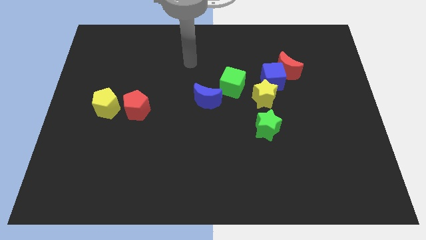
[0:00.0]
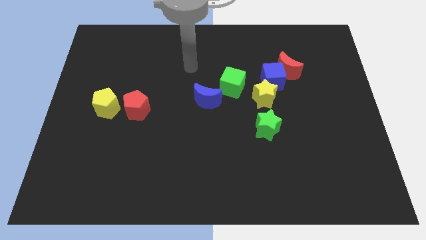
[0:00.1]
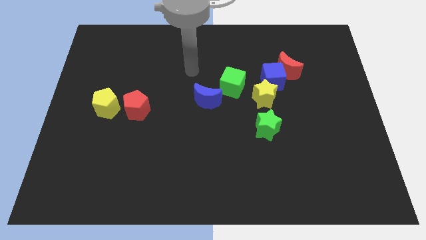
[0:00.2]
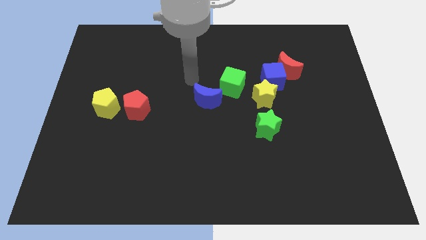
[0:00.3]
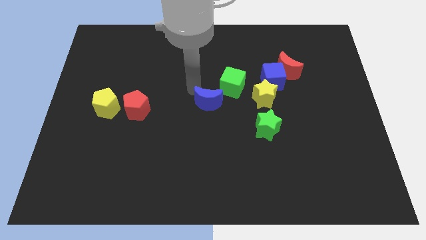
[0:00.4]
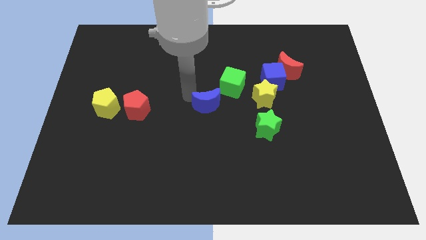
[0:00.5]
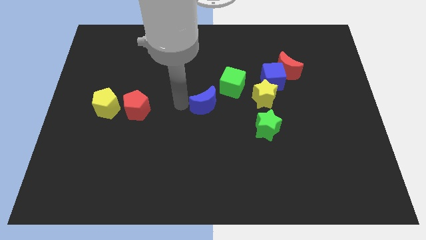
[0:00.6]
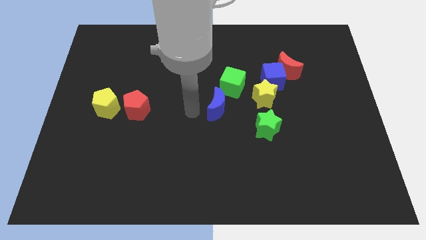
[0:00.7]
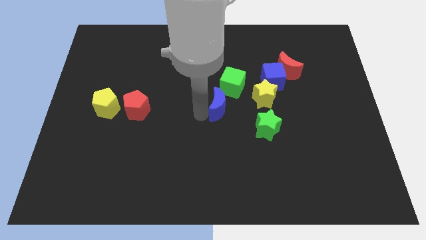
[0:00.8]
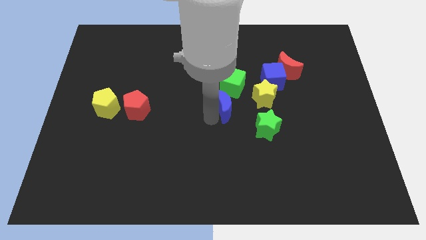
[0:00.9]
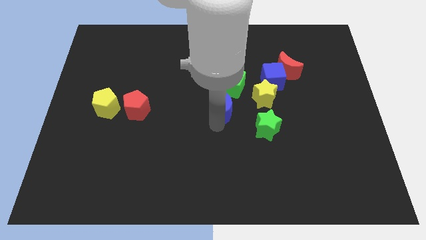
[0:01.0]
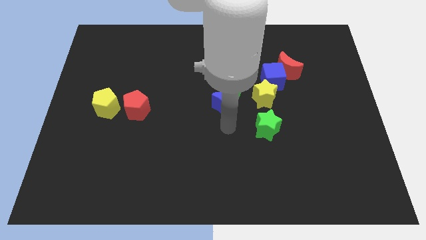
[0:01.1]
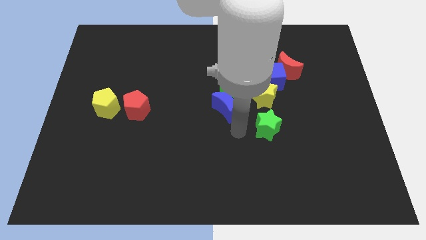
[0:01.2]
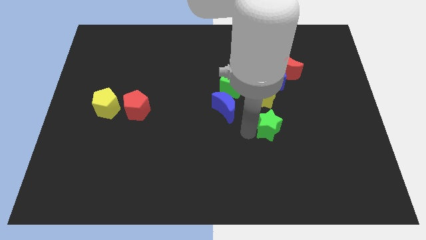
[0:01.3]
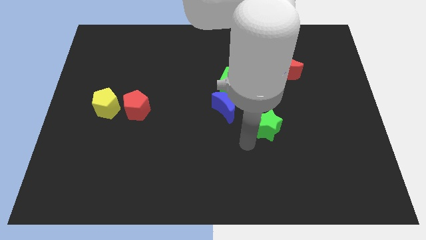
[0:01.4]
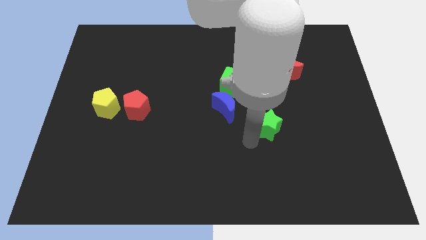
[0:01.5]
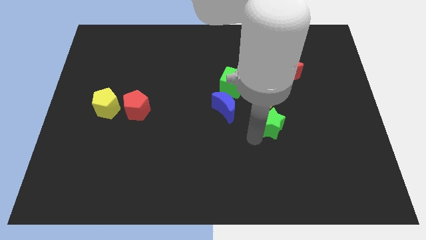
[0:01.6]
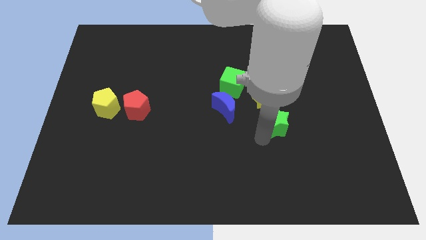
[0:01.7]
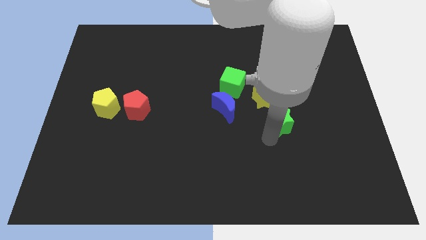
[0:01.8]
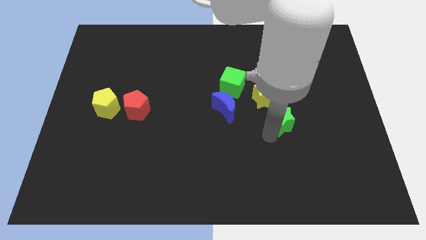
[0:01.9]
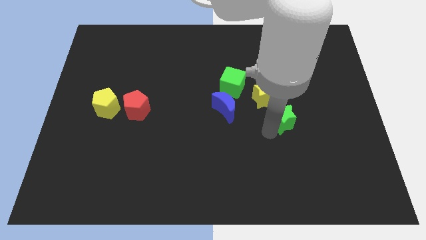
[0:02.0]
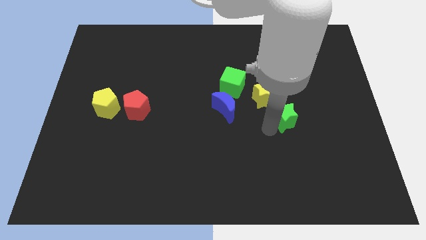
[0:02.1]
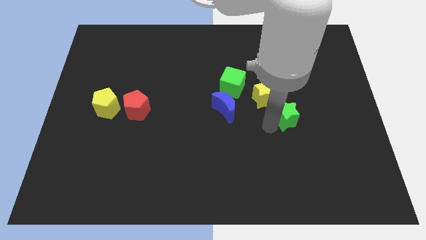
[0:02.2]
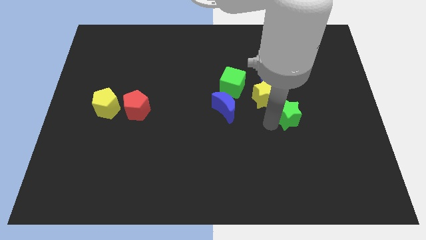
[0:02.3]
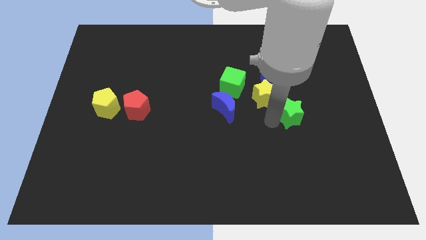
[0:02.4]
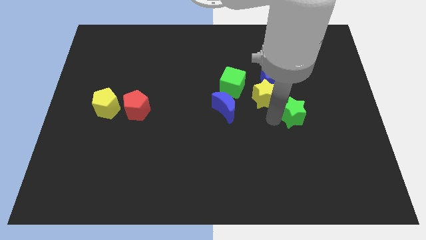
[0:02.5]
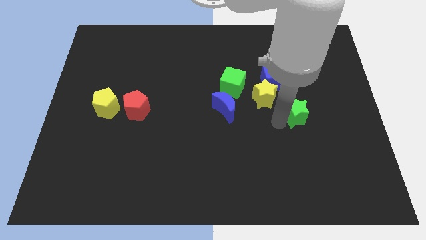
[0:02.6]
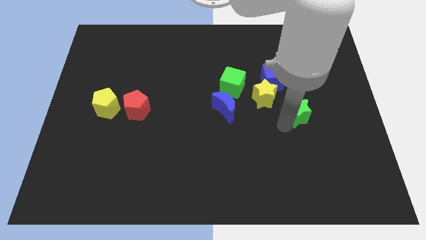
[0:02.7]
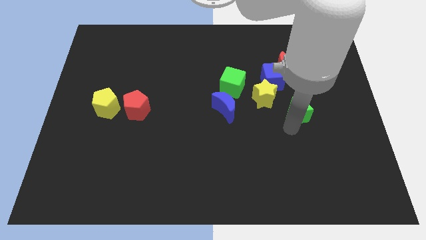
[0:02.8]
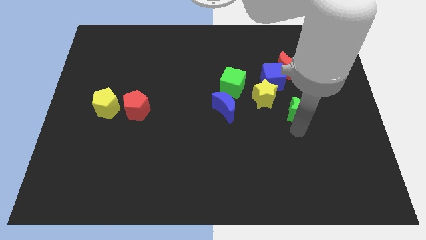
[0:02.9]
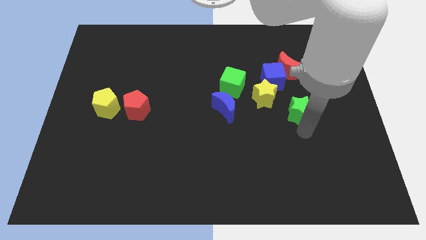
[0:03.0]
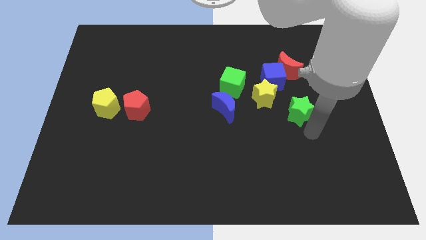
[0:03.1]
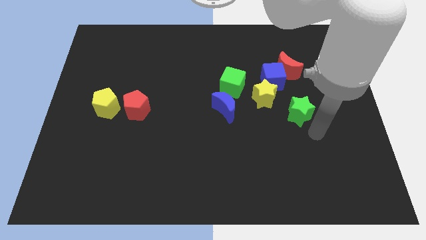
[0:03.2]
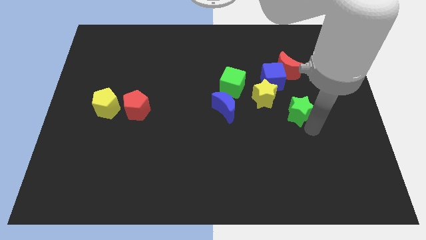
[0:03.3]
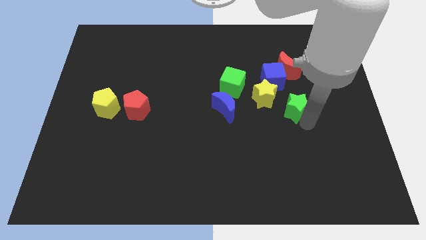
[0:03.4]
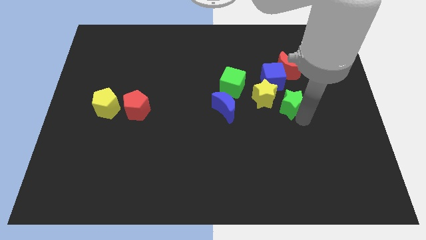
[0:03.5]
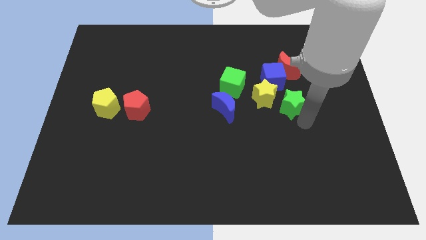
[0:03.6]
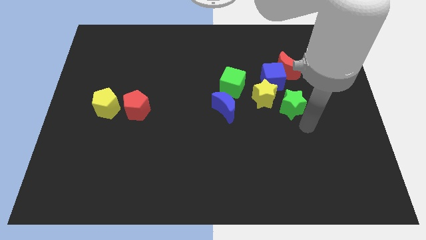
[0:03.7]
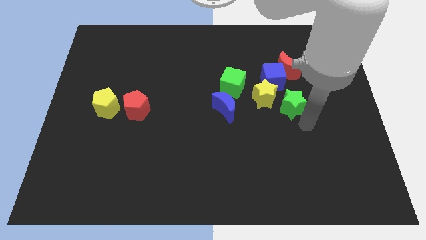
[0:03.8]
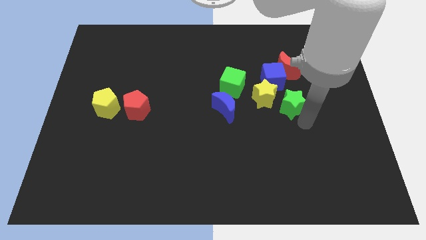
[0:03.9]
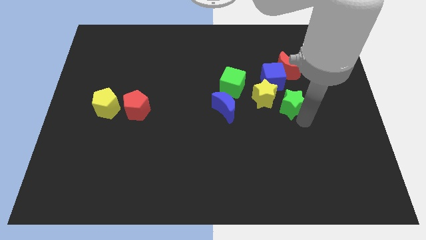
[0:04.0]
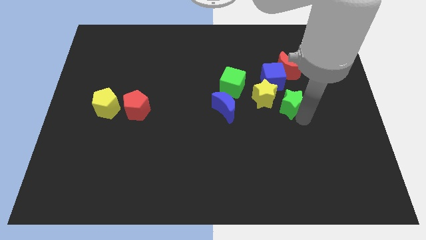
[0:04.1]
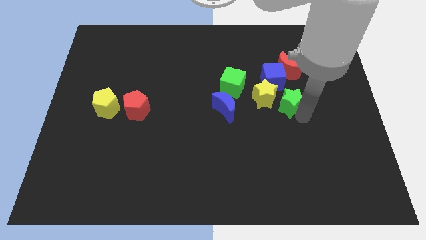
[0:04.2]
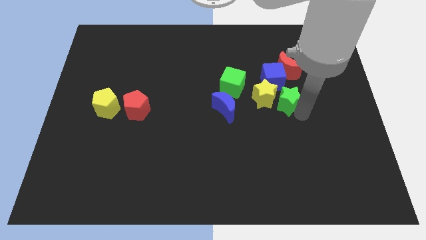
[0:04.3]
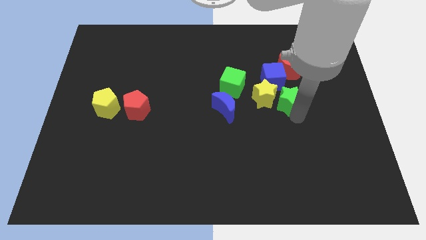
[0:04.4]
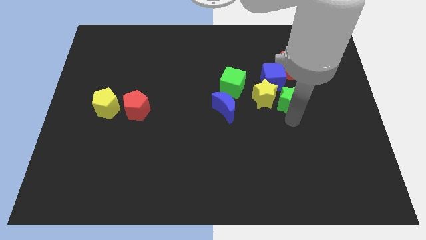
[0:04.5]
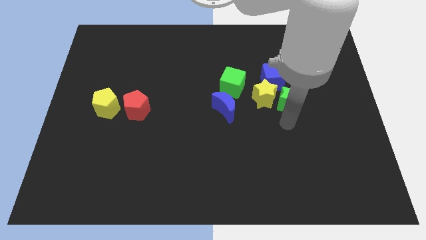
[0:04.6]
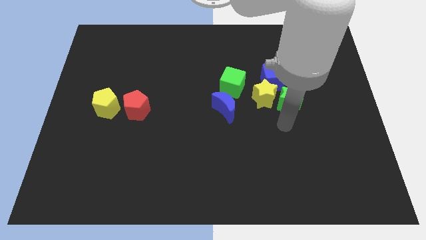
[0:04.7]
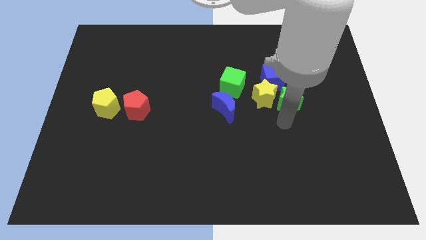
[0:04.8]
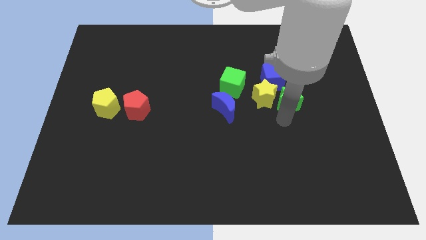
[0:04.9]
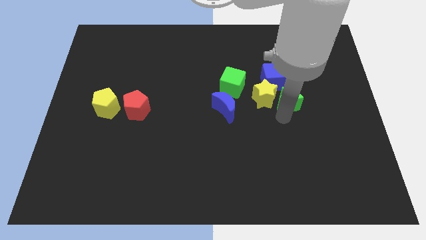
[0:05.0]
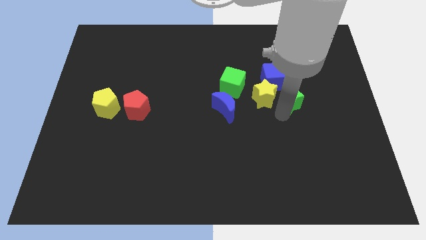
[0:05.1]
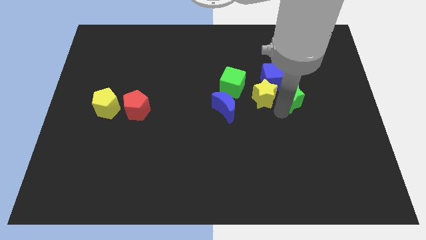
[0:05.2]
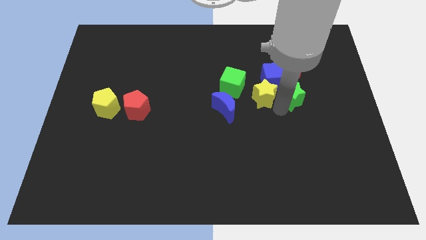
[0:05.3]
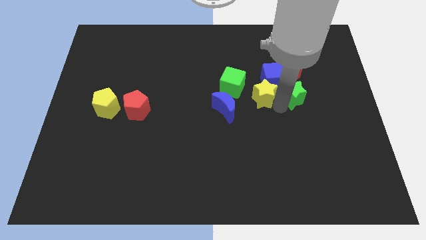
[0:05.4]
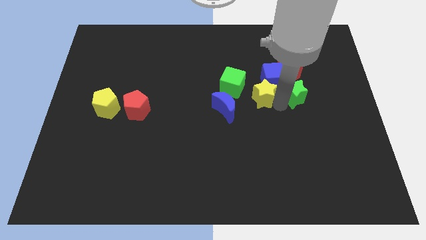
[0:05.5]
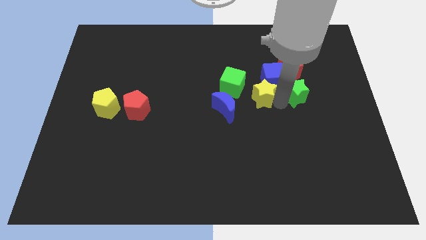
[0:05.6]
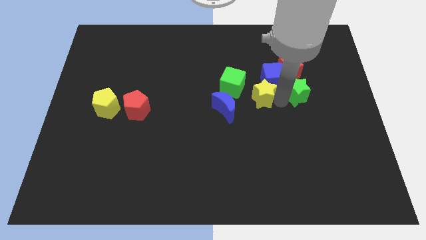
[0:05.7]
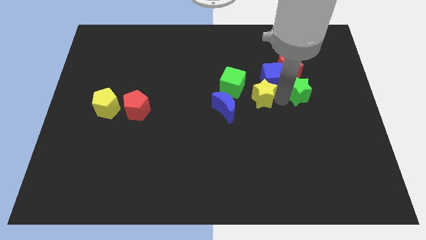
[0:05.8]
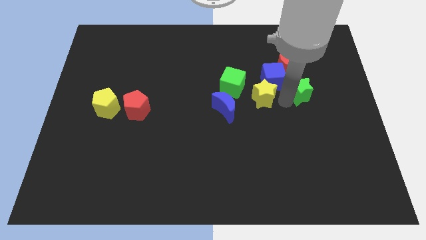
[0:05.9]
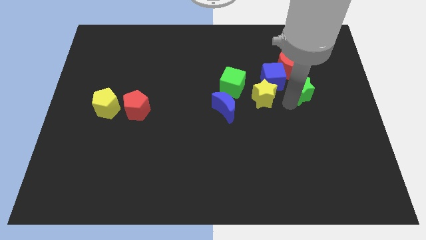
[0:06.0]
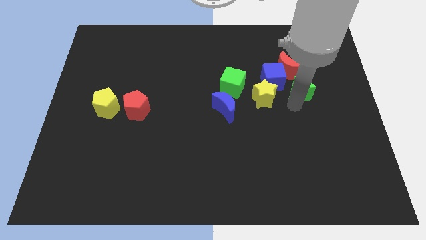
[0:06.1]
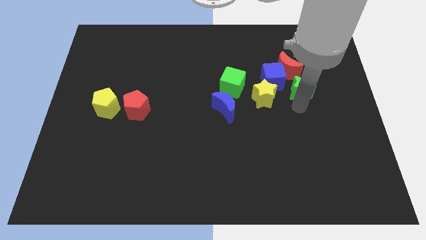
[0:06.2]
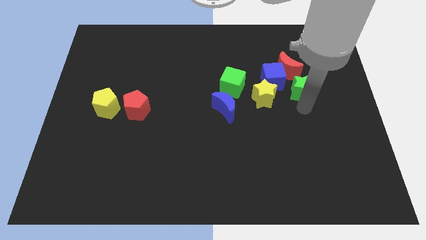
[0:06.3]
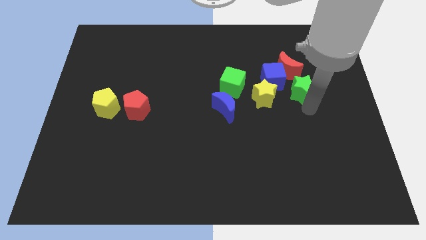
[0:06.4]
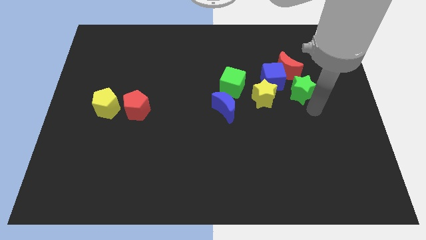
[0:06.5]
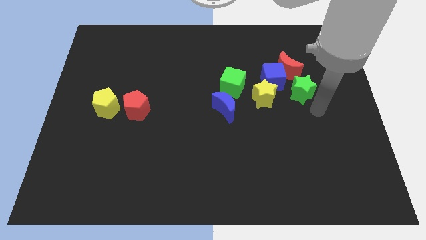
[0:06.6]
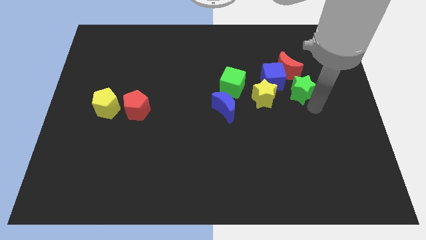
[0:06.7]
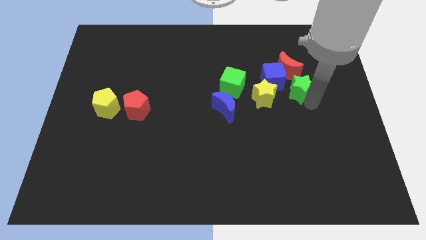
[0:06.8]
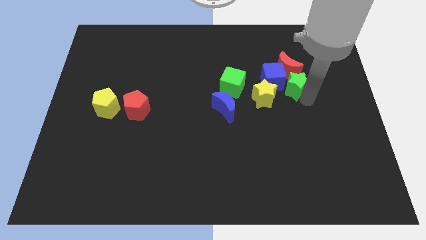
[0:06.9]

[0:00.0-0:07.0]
move the green star to the red moon
